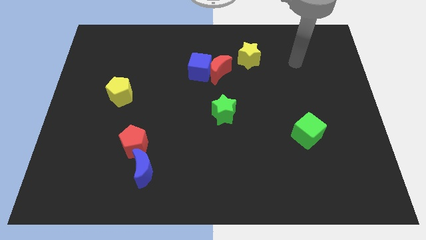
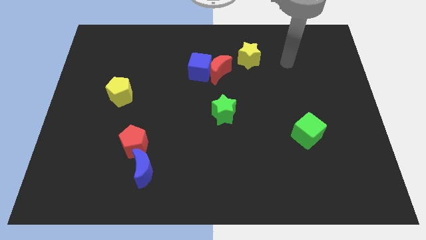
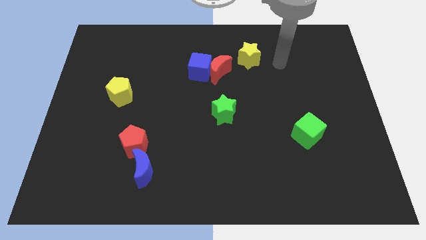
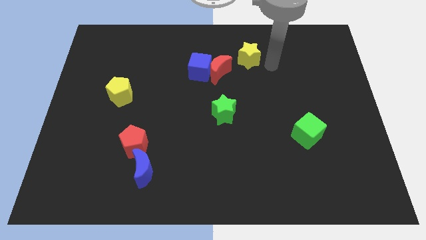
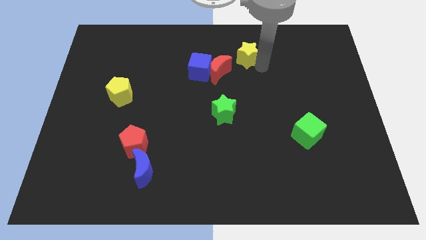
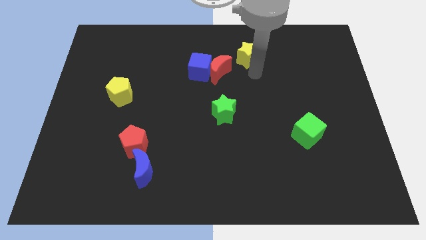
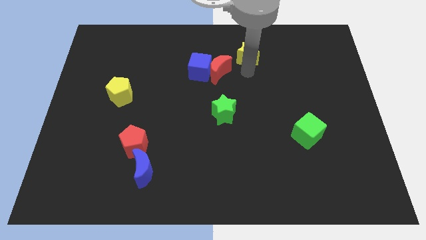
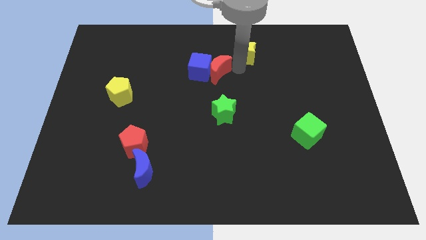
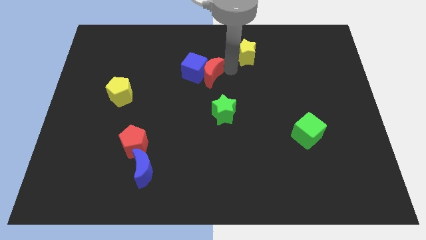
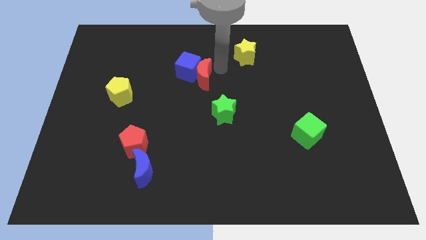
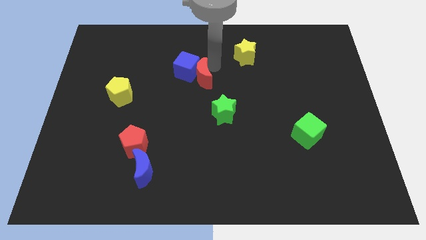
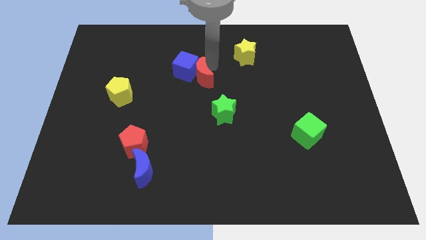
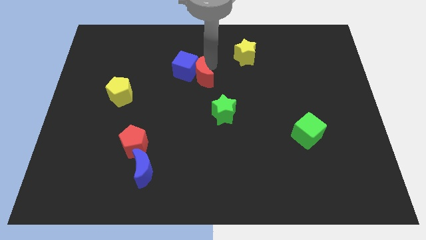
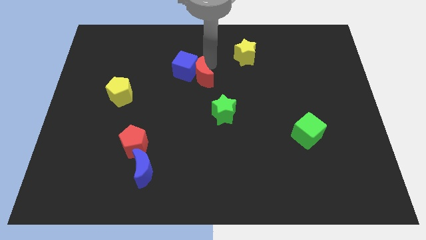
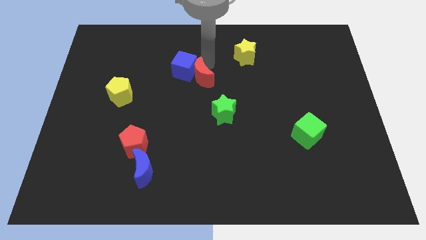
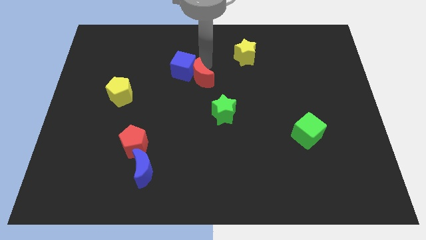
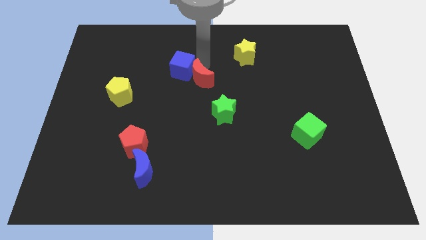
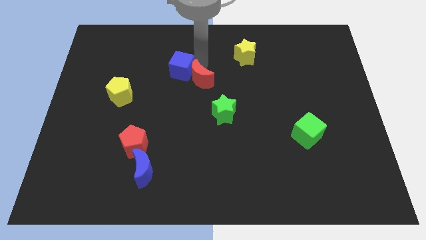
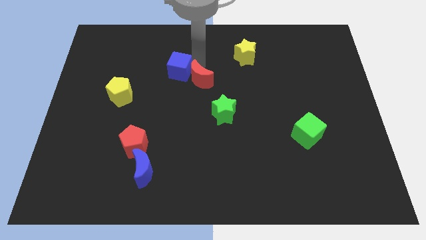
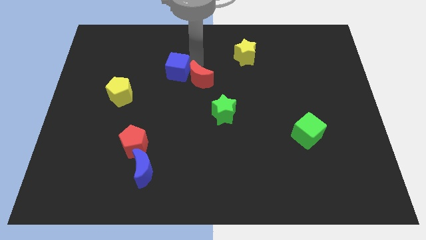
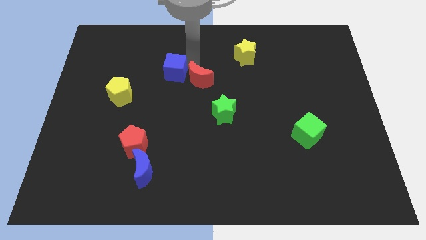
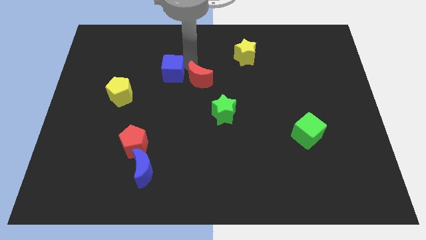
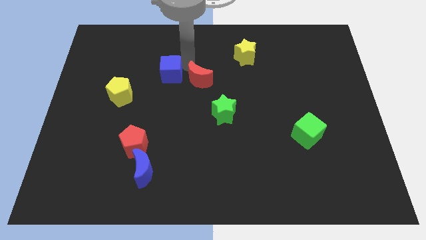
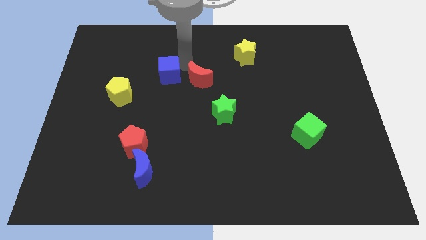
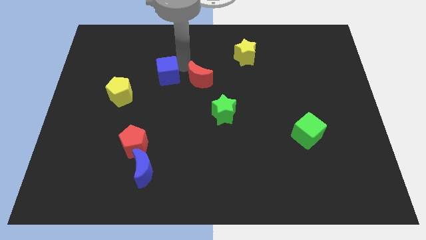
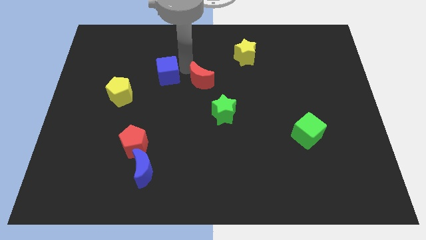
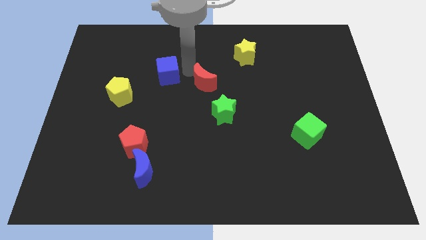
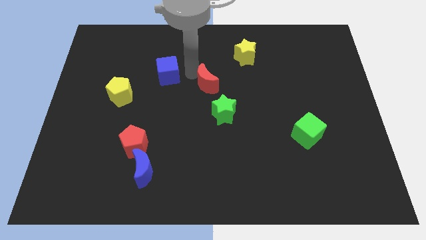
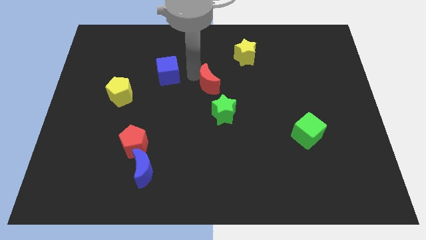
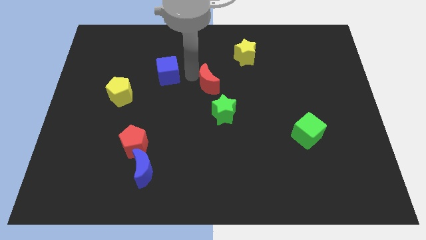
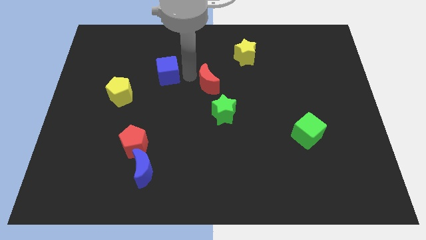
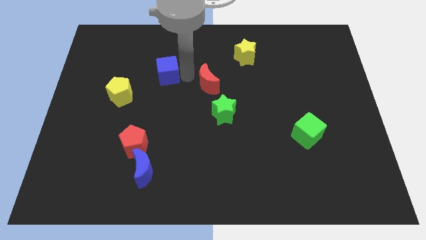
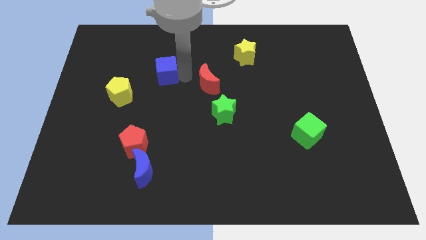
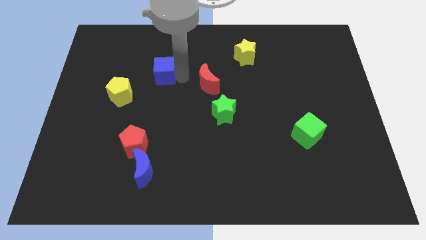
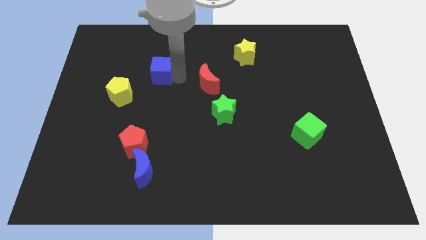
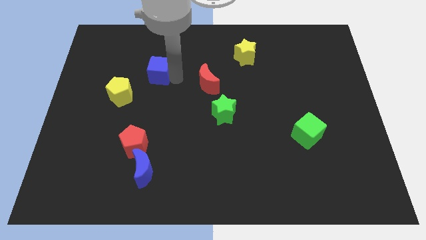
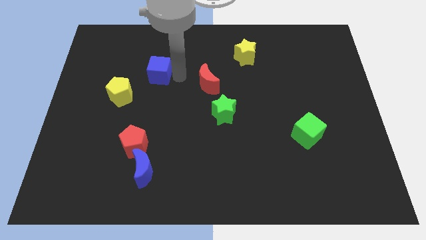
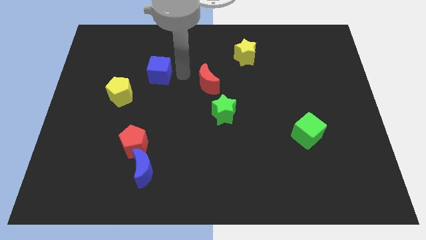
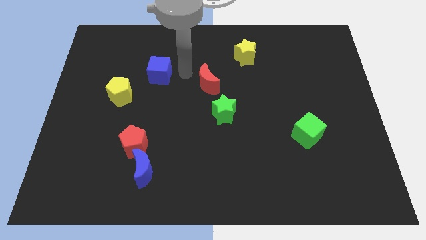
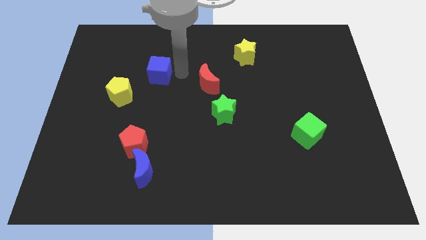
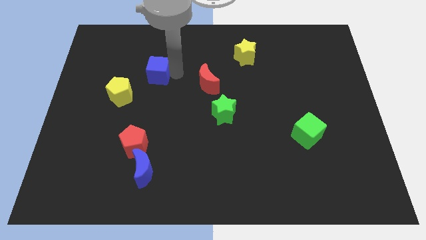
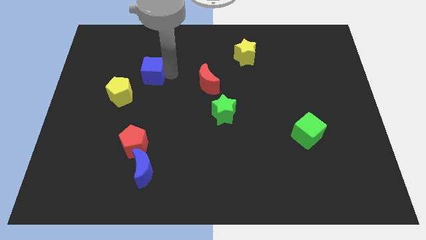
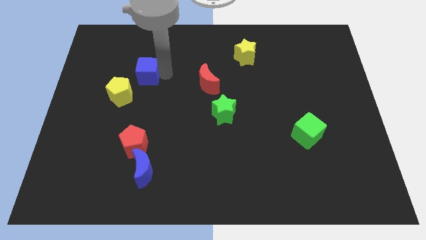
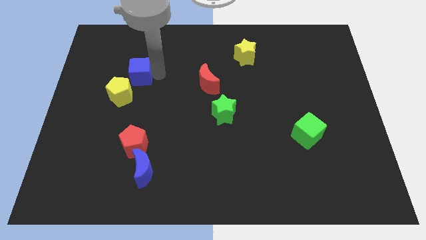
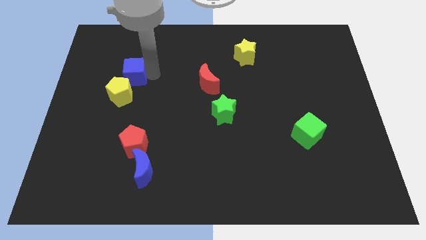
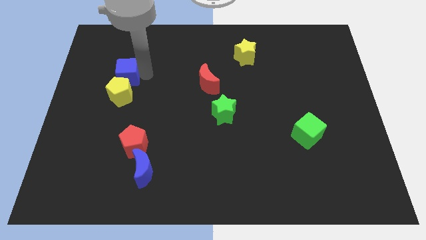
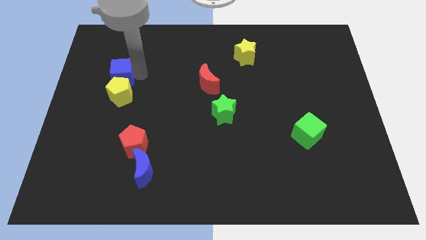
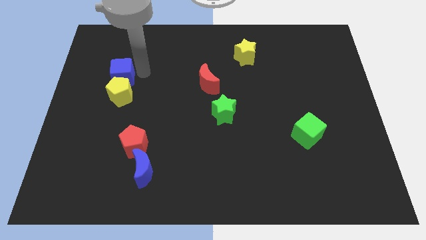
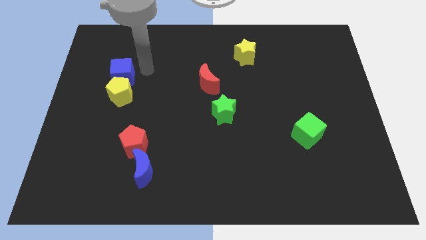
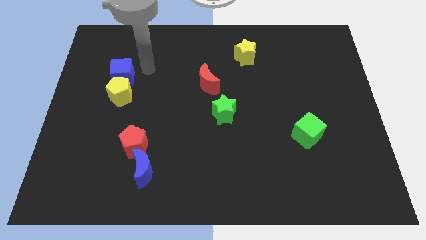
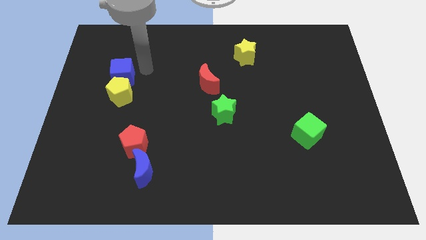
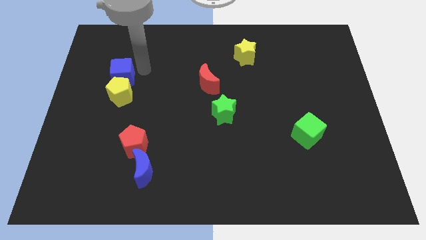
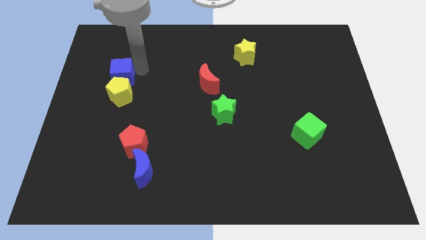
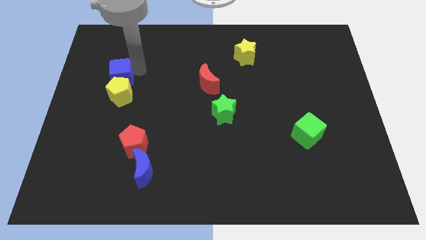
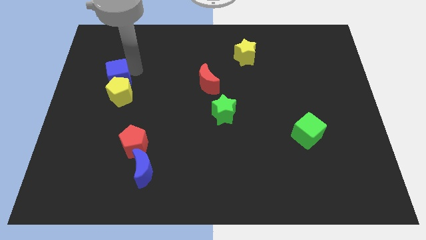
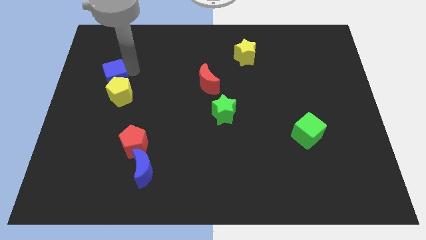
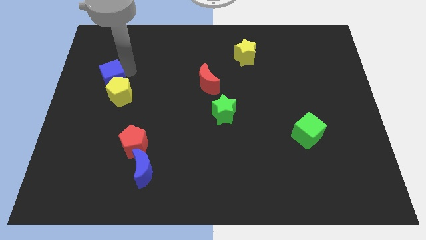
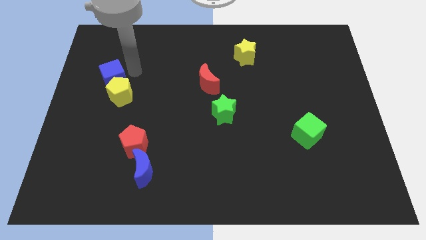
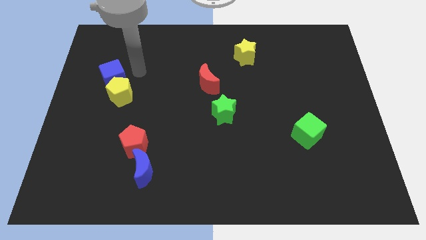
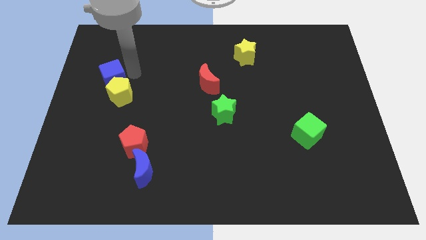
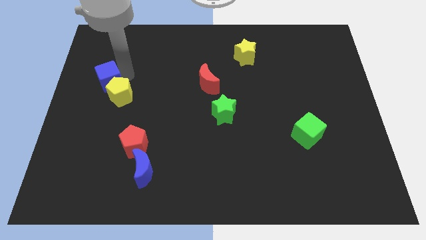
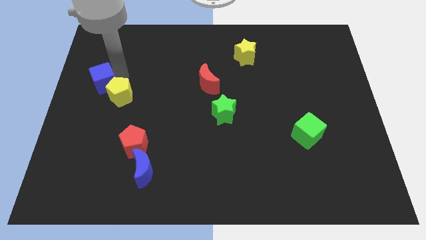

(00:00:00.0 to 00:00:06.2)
push the blue cube to the center left
